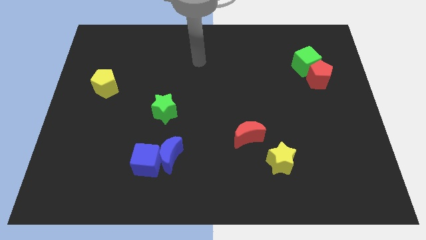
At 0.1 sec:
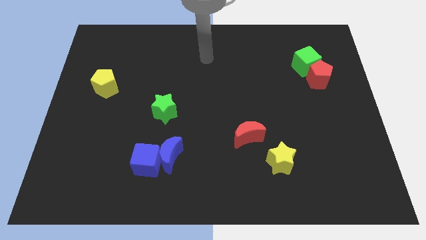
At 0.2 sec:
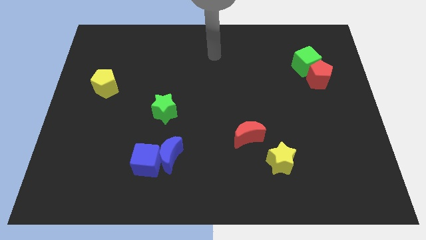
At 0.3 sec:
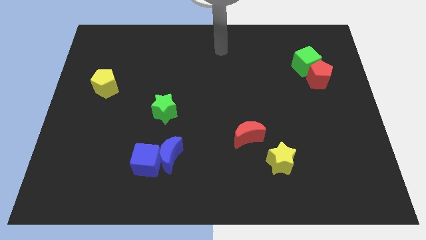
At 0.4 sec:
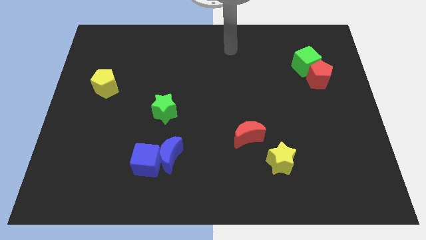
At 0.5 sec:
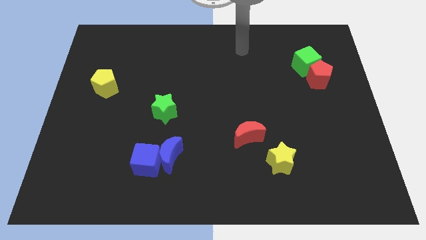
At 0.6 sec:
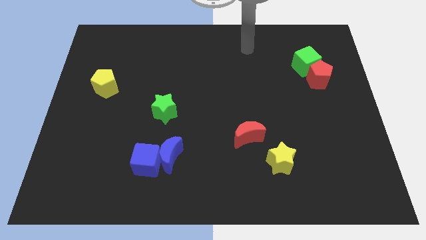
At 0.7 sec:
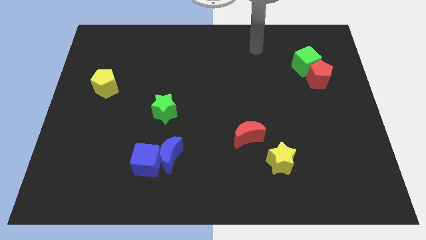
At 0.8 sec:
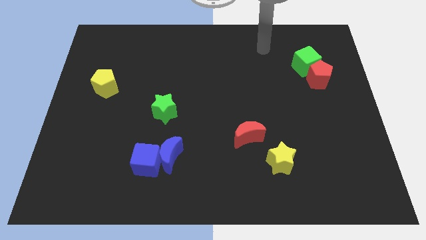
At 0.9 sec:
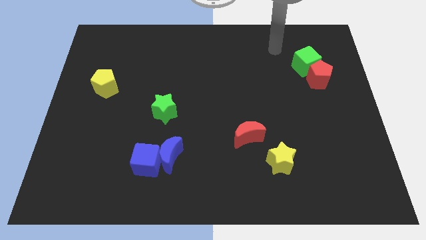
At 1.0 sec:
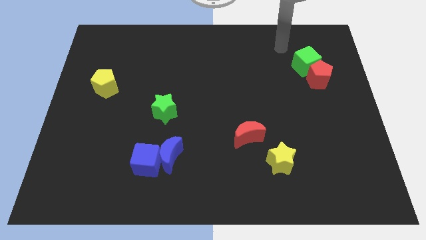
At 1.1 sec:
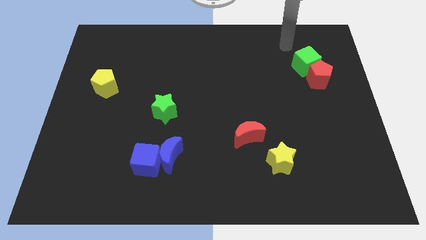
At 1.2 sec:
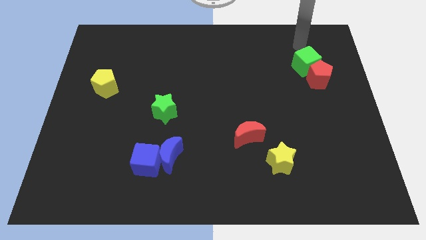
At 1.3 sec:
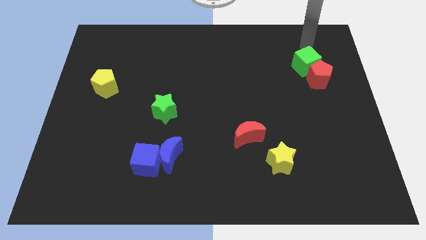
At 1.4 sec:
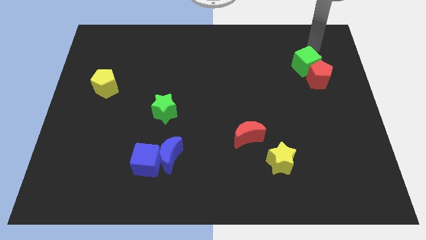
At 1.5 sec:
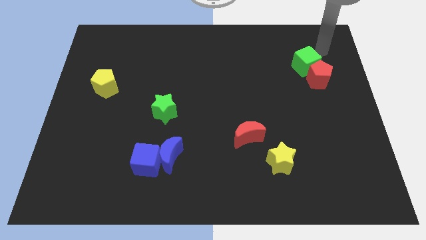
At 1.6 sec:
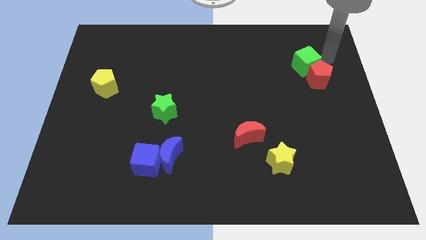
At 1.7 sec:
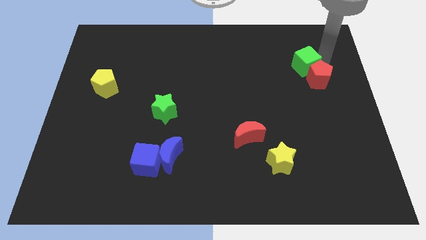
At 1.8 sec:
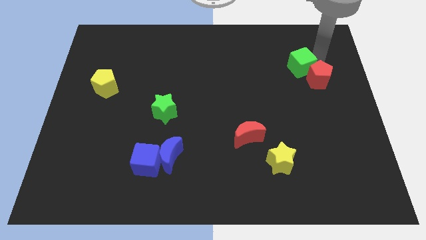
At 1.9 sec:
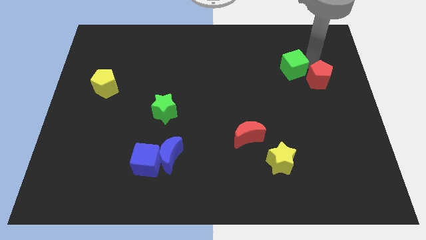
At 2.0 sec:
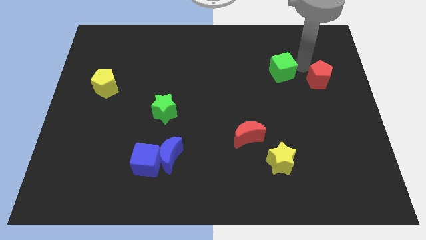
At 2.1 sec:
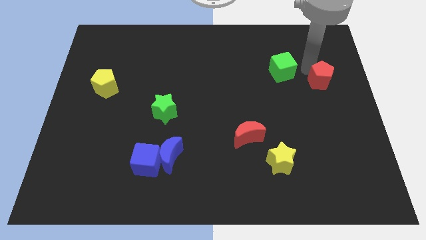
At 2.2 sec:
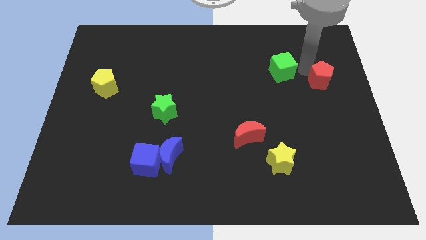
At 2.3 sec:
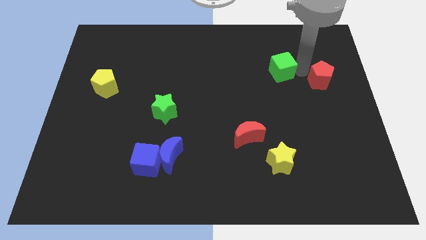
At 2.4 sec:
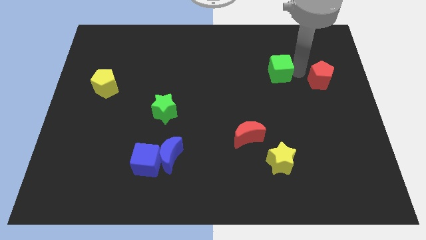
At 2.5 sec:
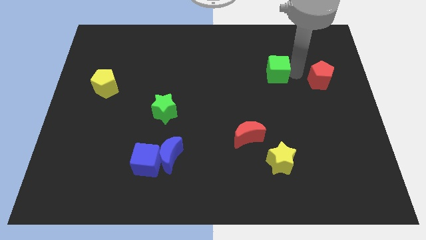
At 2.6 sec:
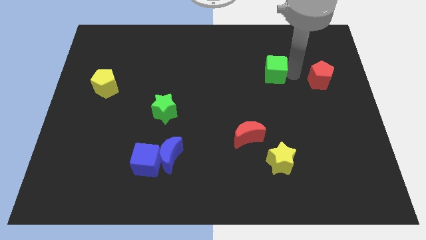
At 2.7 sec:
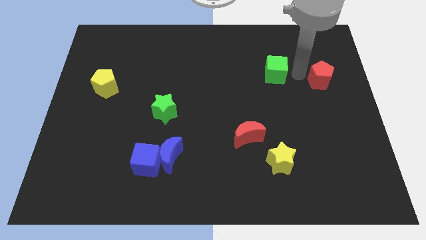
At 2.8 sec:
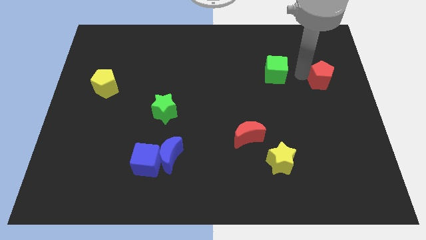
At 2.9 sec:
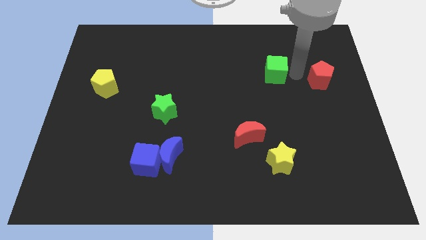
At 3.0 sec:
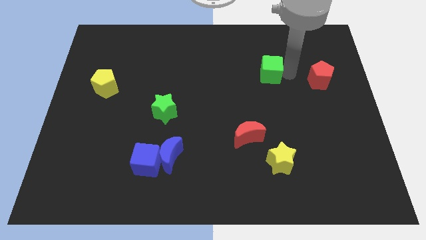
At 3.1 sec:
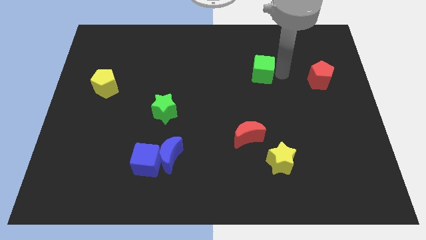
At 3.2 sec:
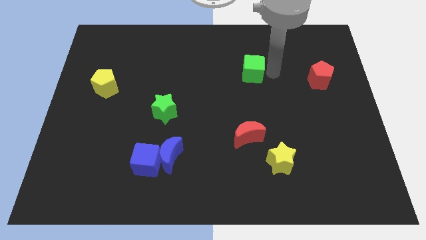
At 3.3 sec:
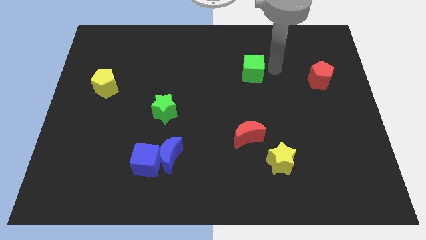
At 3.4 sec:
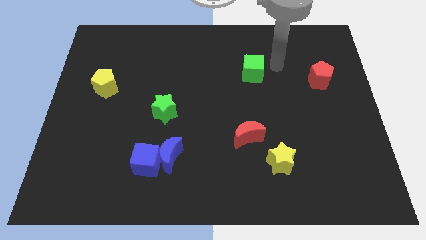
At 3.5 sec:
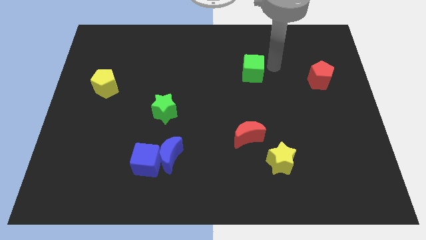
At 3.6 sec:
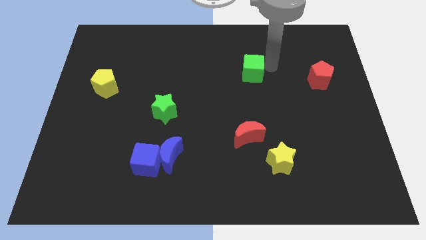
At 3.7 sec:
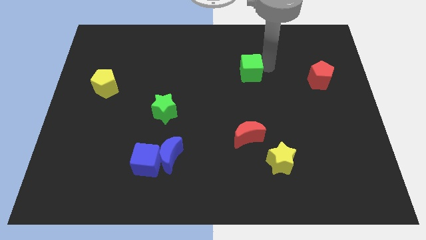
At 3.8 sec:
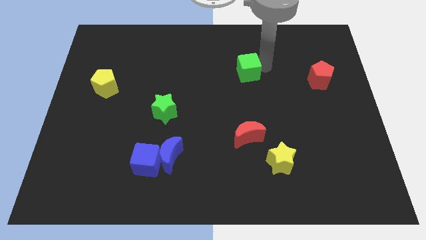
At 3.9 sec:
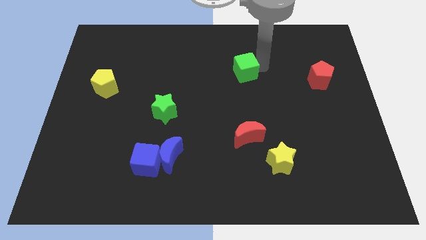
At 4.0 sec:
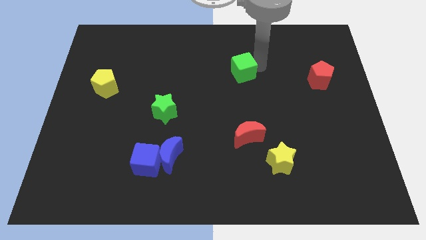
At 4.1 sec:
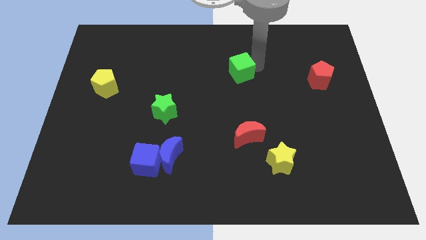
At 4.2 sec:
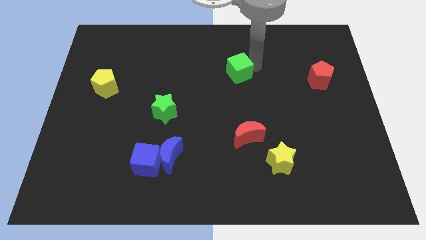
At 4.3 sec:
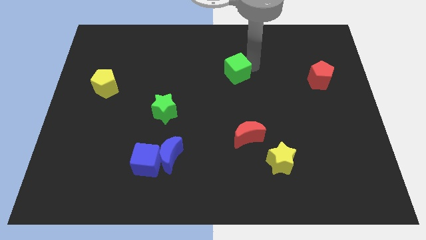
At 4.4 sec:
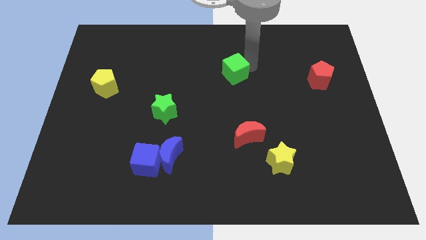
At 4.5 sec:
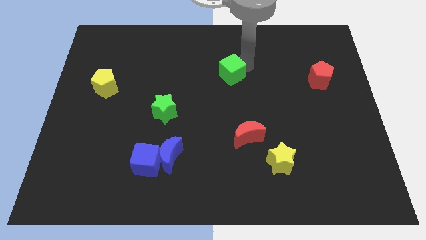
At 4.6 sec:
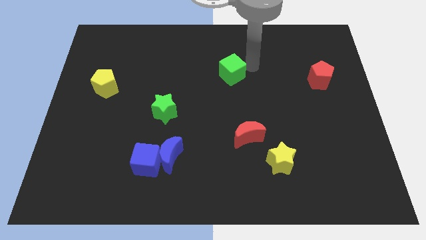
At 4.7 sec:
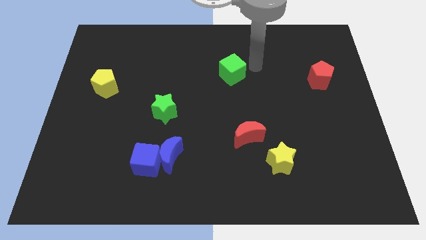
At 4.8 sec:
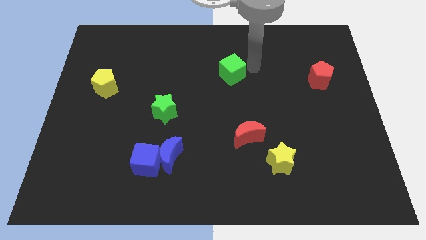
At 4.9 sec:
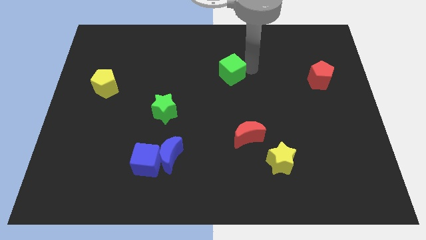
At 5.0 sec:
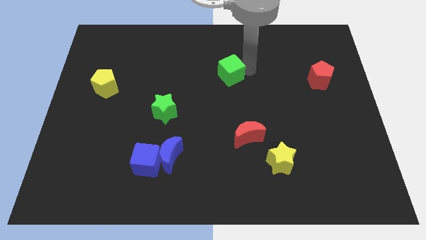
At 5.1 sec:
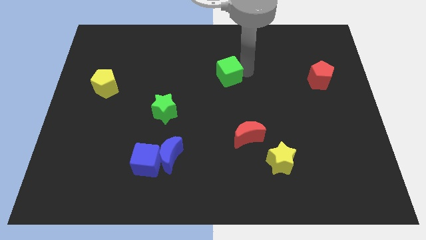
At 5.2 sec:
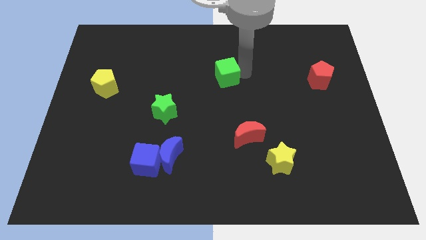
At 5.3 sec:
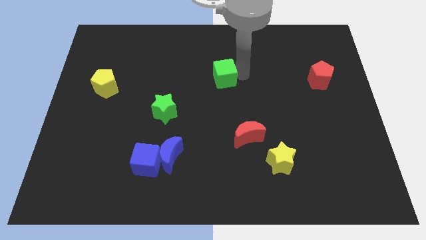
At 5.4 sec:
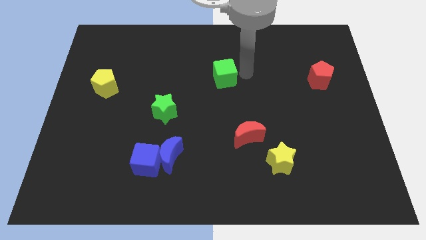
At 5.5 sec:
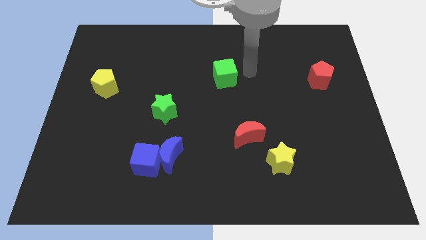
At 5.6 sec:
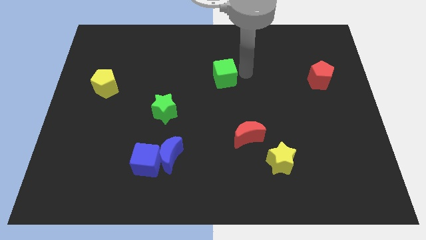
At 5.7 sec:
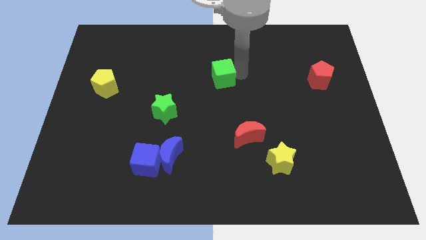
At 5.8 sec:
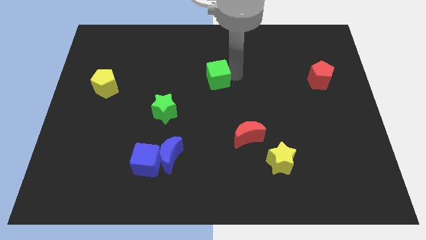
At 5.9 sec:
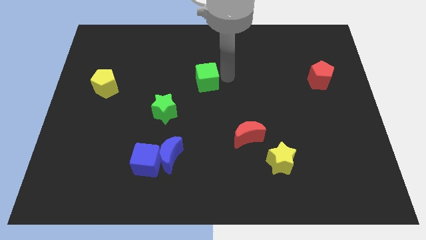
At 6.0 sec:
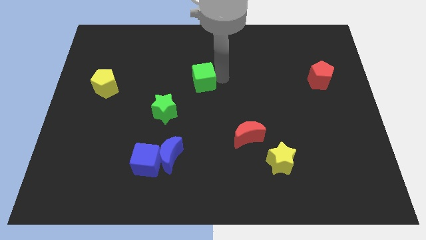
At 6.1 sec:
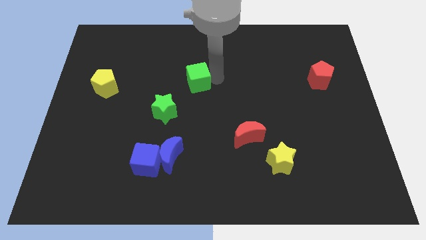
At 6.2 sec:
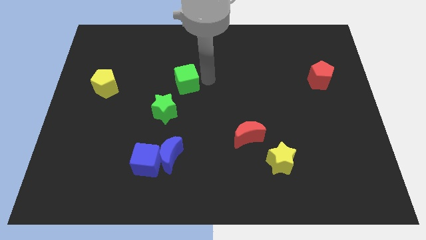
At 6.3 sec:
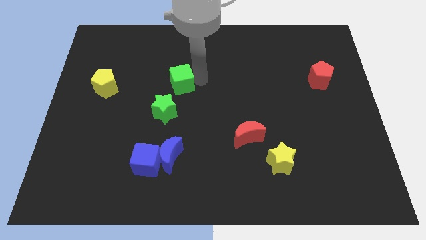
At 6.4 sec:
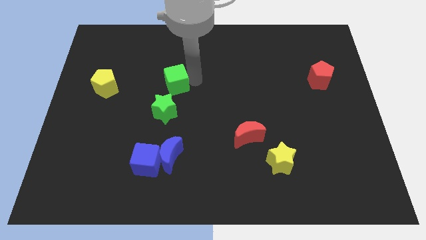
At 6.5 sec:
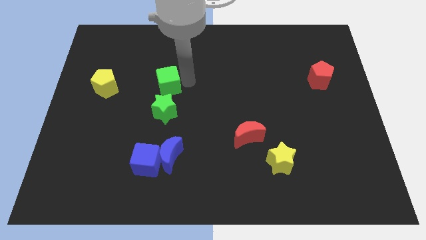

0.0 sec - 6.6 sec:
push the green cube to the right side of the yellow pentagon

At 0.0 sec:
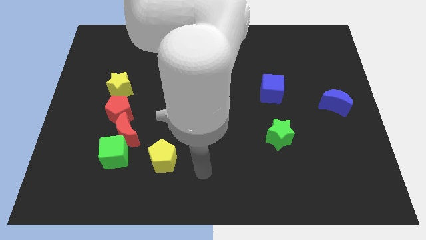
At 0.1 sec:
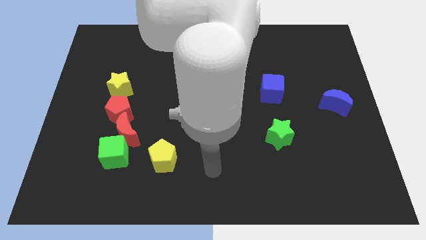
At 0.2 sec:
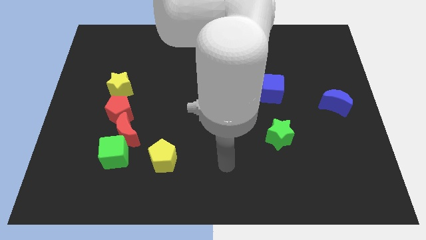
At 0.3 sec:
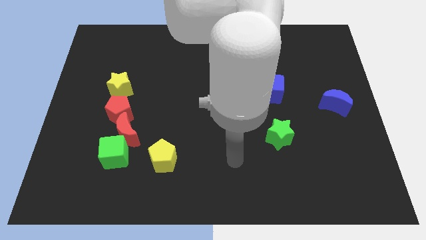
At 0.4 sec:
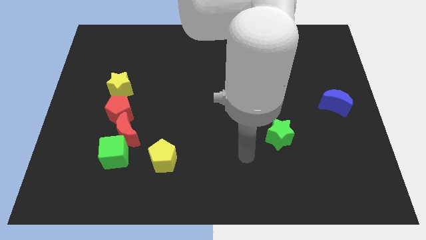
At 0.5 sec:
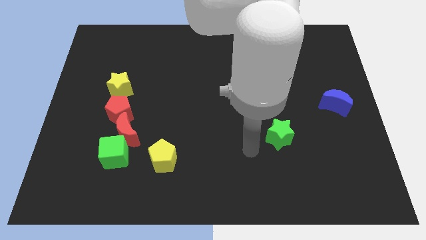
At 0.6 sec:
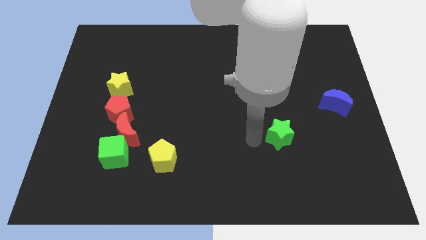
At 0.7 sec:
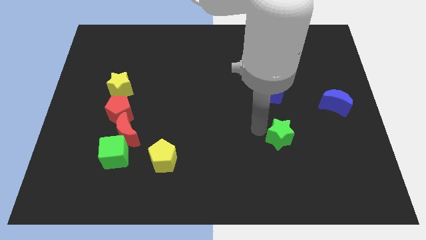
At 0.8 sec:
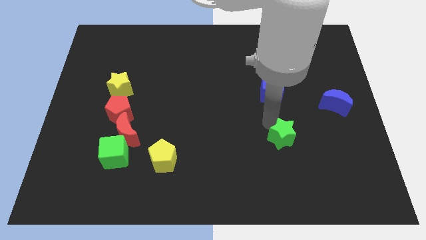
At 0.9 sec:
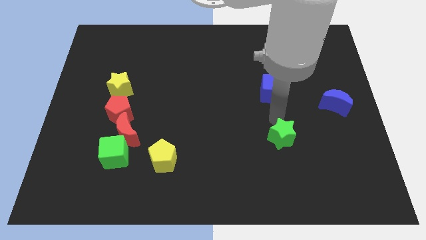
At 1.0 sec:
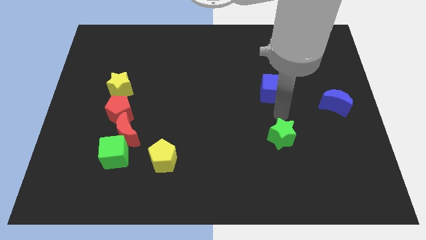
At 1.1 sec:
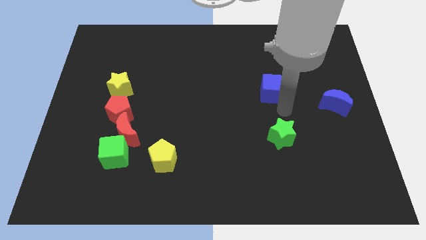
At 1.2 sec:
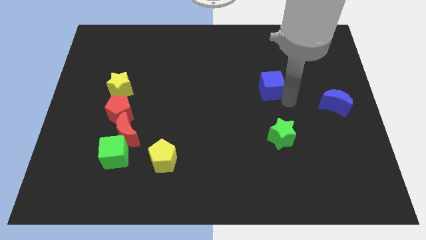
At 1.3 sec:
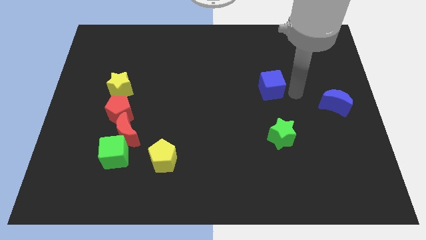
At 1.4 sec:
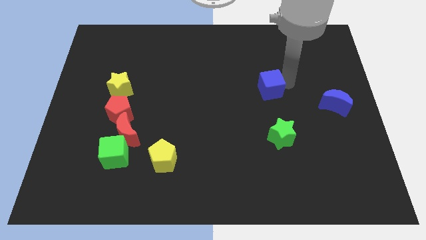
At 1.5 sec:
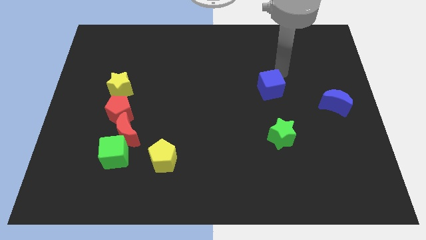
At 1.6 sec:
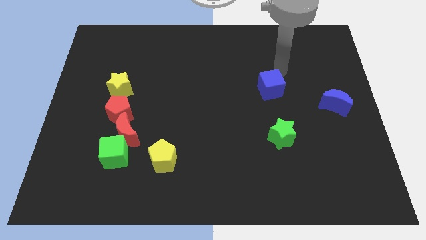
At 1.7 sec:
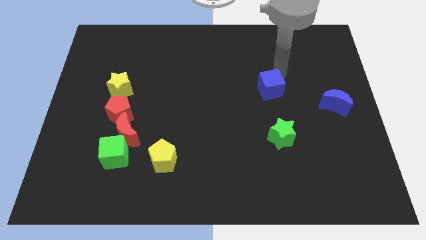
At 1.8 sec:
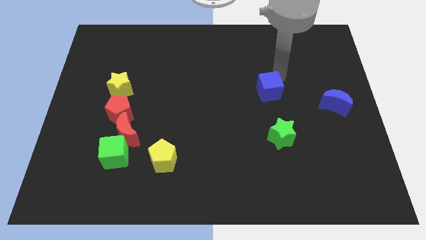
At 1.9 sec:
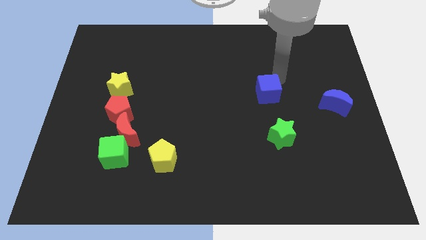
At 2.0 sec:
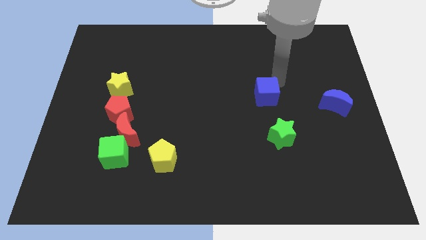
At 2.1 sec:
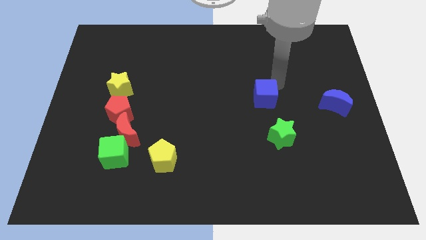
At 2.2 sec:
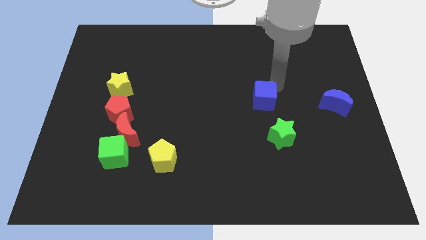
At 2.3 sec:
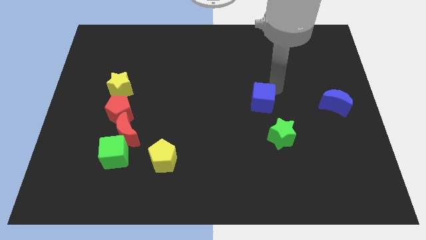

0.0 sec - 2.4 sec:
slide the blue cube to the top left side of the green star
